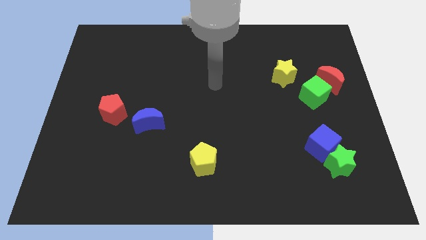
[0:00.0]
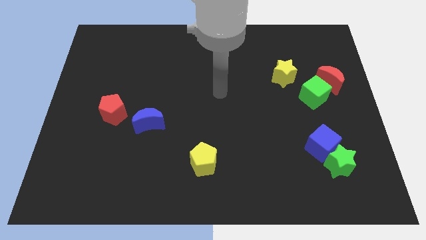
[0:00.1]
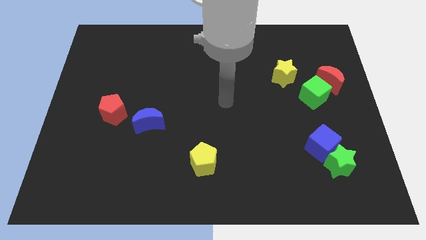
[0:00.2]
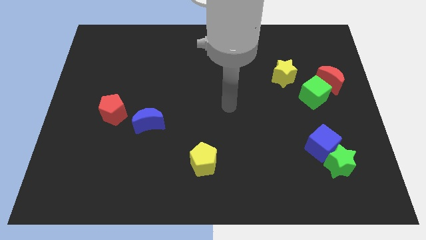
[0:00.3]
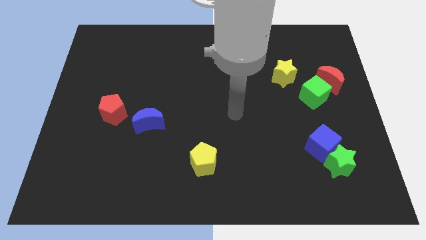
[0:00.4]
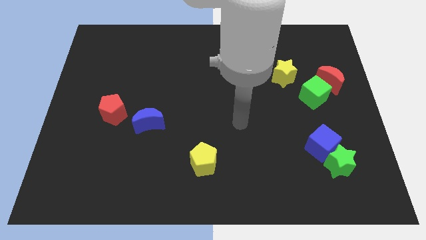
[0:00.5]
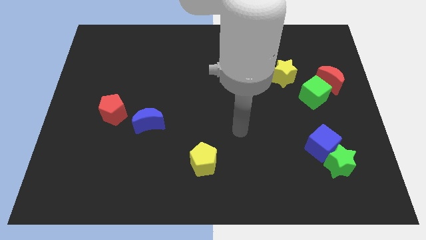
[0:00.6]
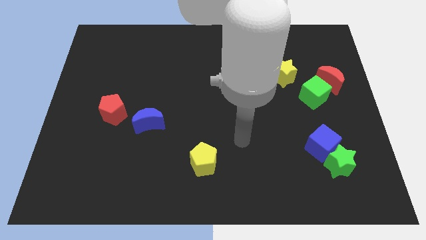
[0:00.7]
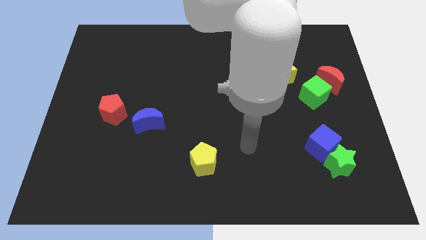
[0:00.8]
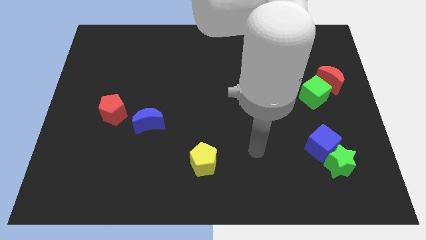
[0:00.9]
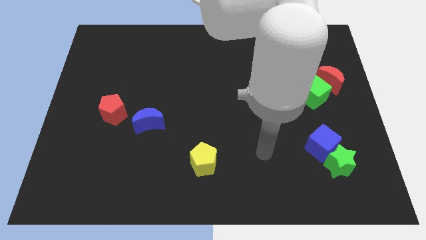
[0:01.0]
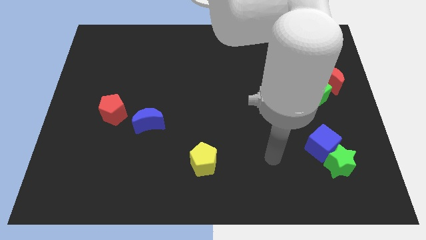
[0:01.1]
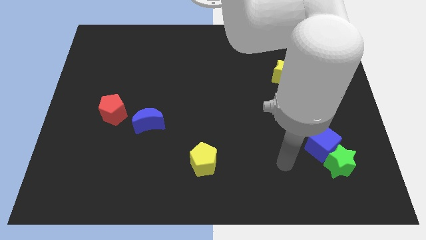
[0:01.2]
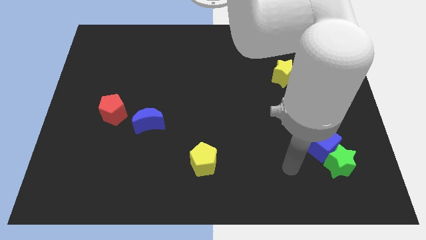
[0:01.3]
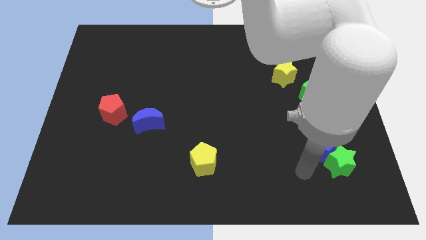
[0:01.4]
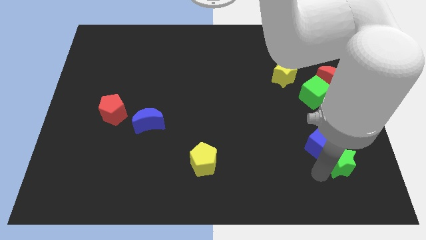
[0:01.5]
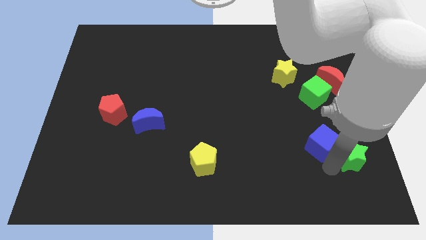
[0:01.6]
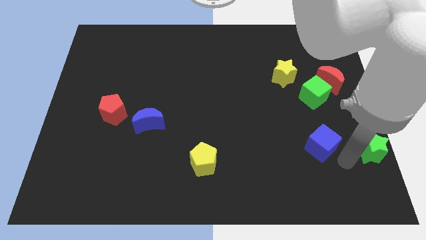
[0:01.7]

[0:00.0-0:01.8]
separate the blue cube from the green star

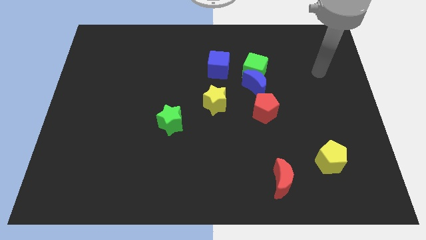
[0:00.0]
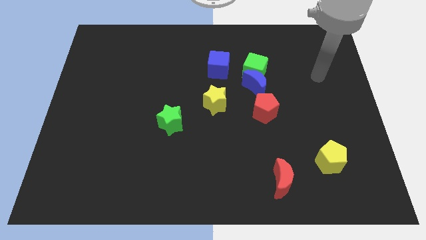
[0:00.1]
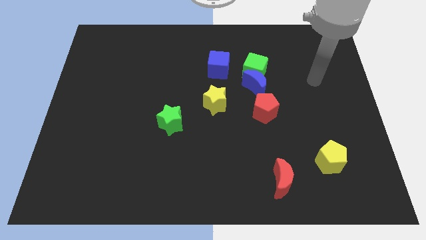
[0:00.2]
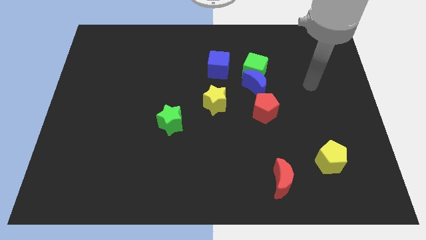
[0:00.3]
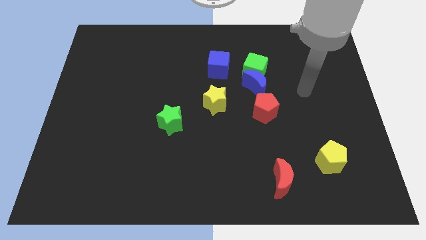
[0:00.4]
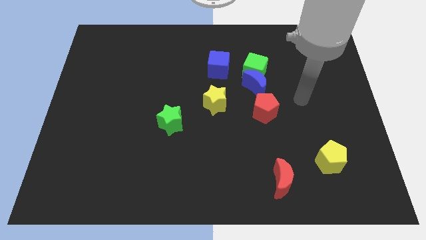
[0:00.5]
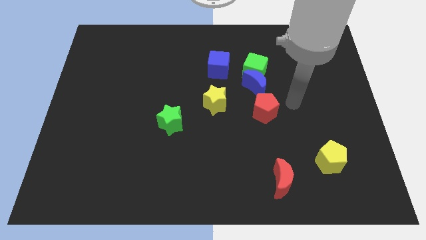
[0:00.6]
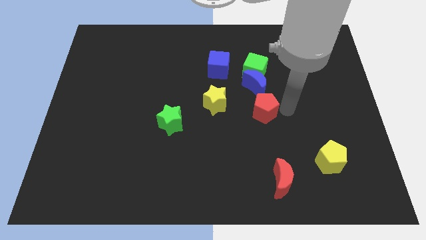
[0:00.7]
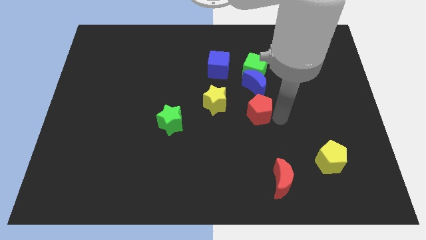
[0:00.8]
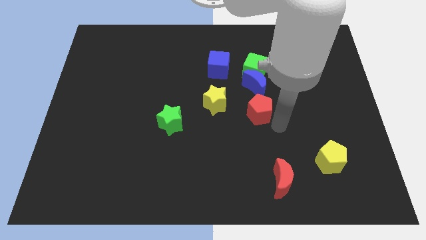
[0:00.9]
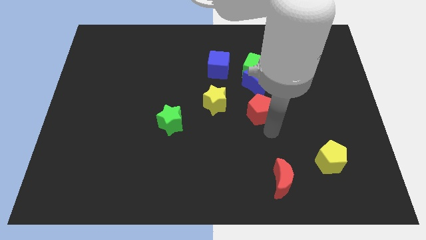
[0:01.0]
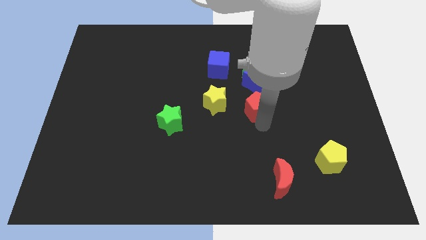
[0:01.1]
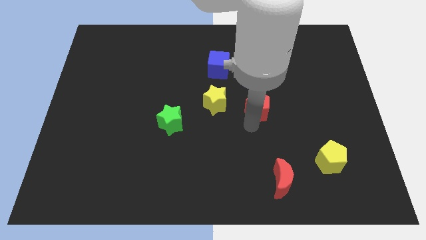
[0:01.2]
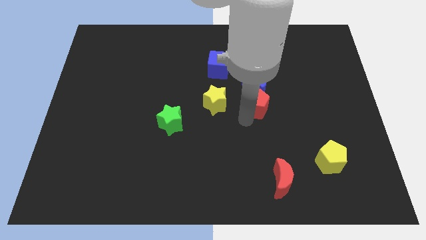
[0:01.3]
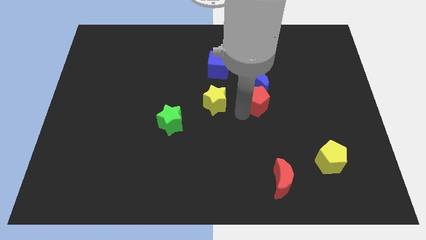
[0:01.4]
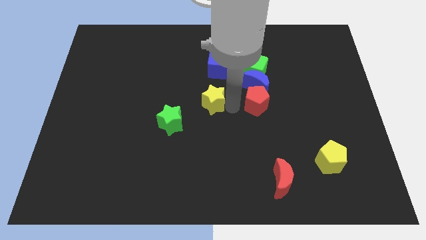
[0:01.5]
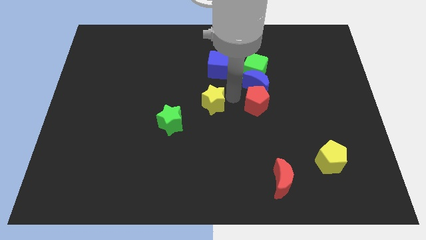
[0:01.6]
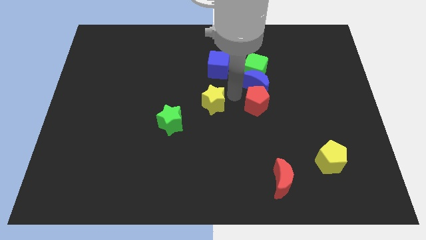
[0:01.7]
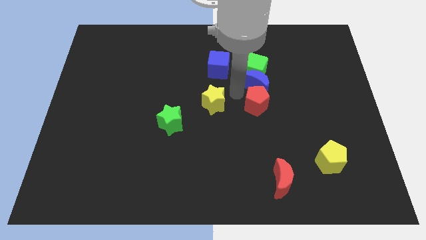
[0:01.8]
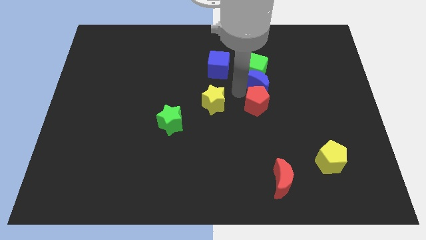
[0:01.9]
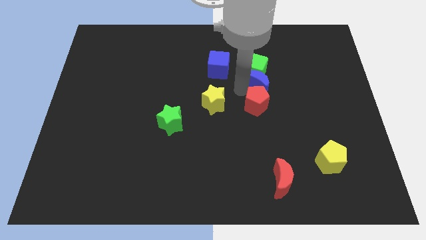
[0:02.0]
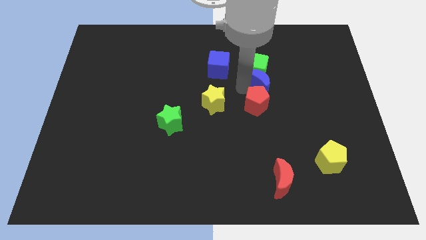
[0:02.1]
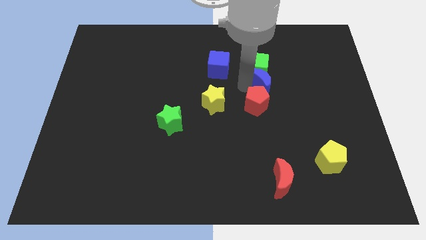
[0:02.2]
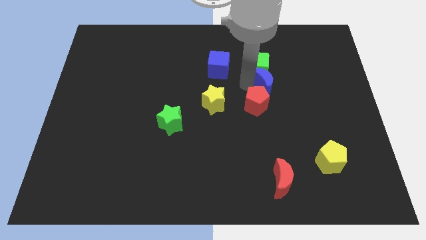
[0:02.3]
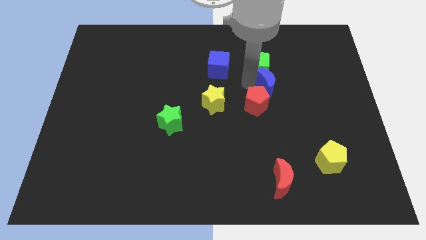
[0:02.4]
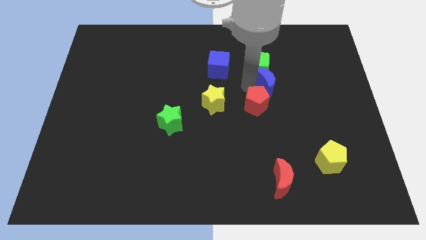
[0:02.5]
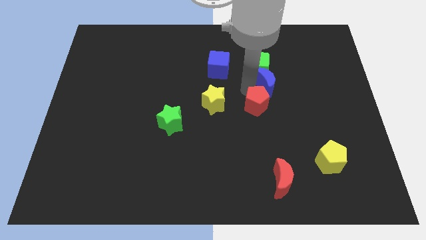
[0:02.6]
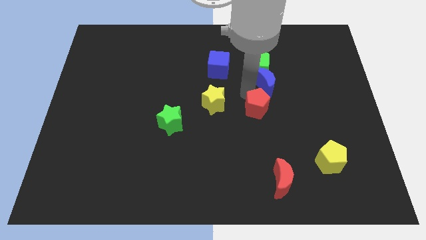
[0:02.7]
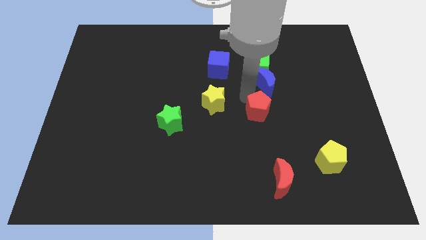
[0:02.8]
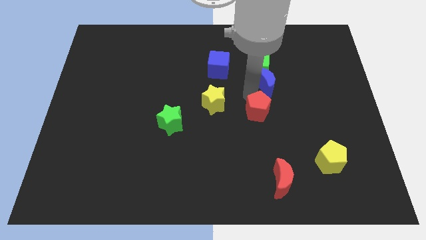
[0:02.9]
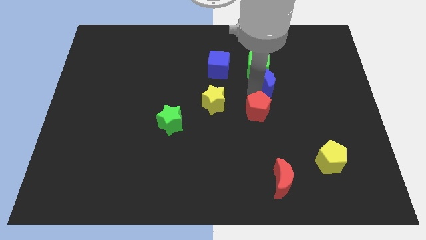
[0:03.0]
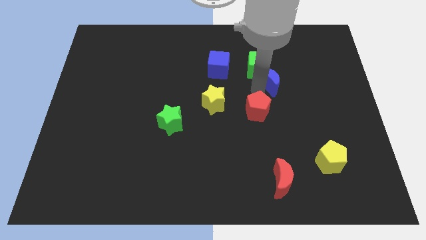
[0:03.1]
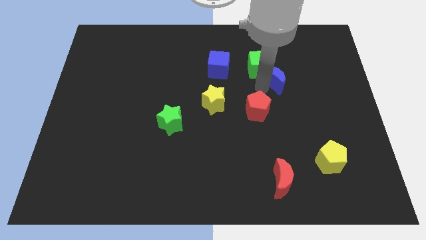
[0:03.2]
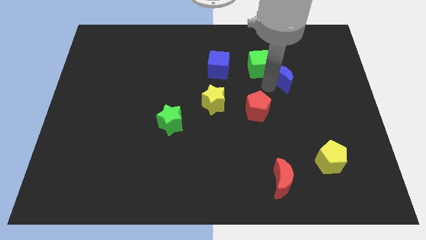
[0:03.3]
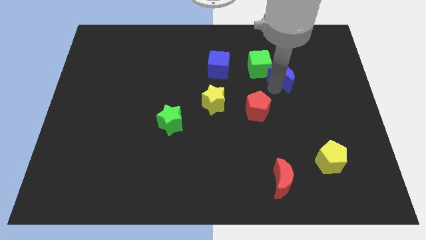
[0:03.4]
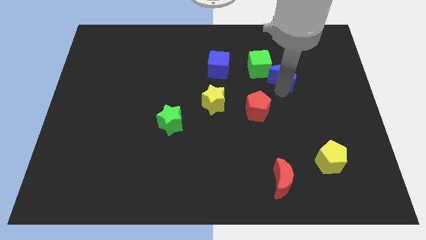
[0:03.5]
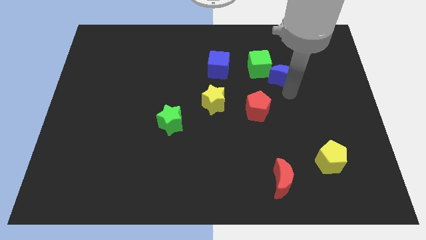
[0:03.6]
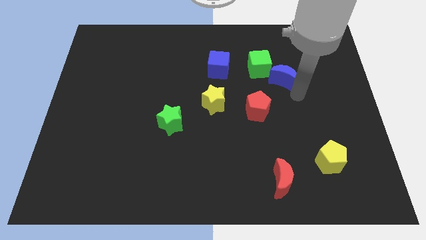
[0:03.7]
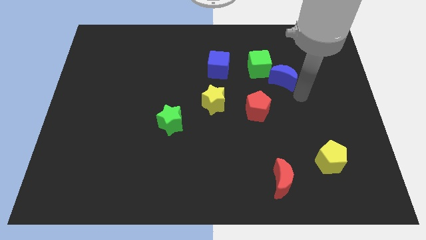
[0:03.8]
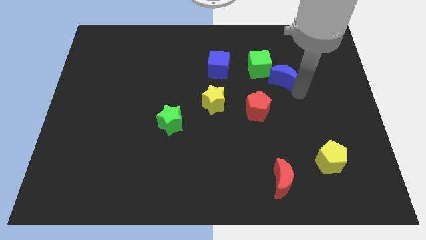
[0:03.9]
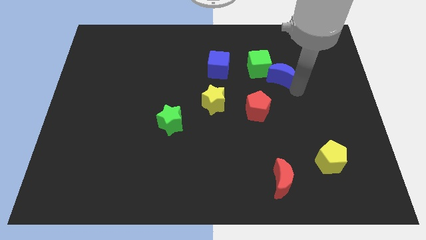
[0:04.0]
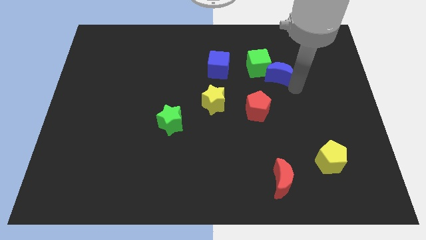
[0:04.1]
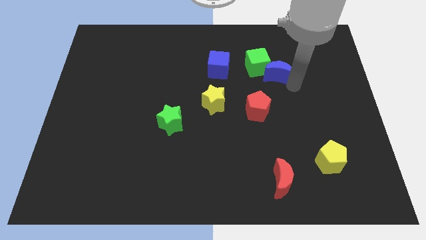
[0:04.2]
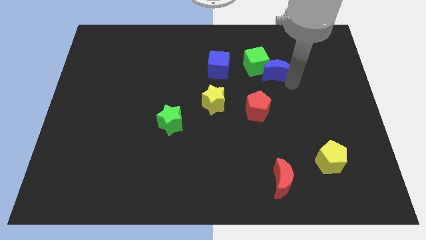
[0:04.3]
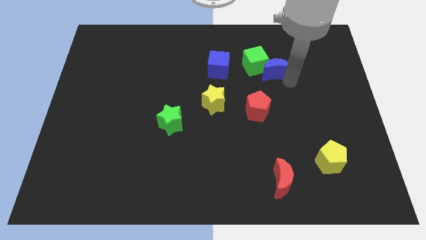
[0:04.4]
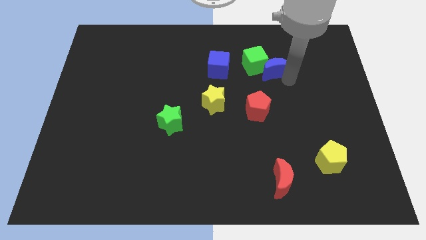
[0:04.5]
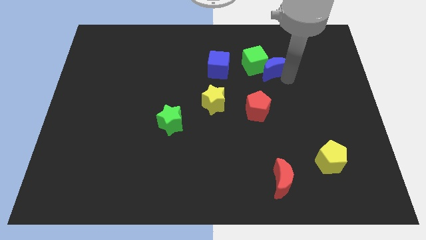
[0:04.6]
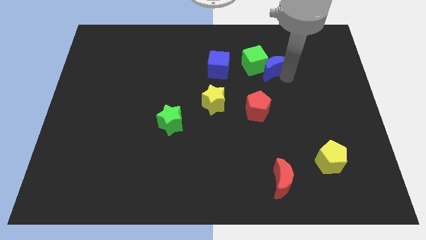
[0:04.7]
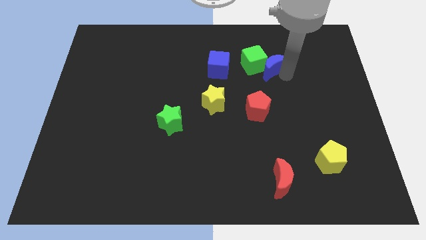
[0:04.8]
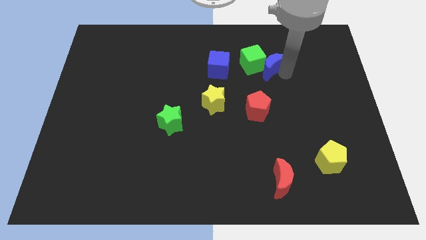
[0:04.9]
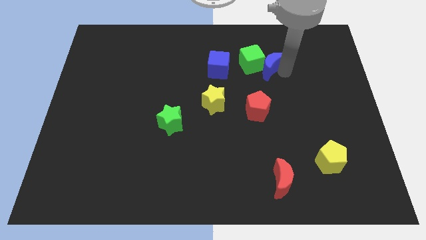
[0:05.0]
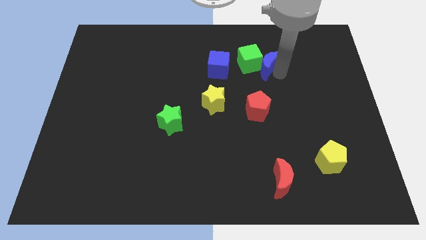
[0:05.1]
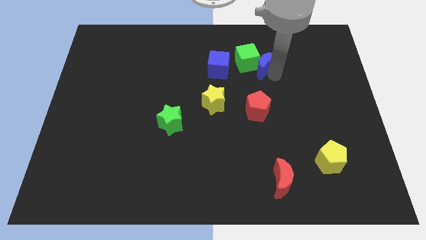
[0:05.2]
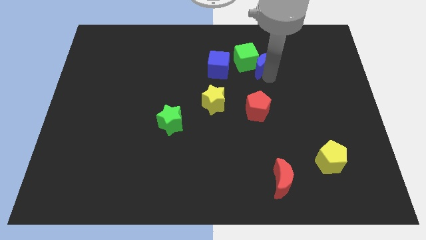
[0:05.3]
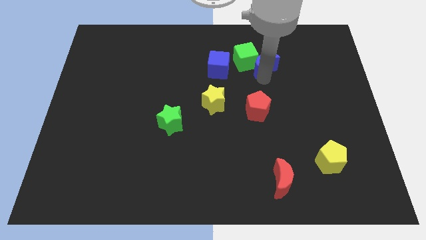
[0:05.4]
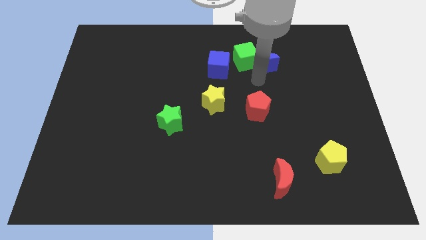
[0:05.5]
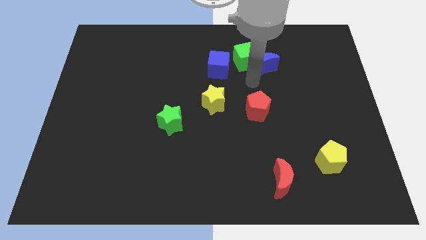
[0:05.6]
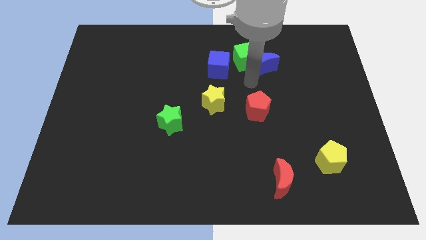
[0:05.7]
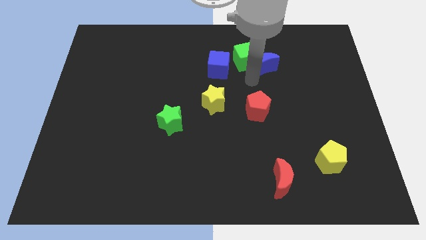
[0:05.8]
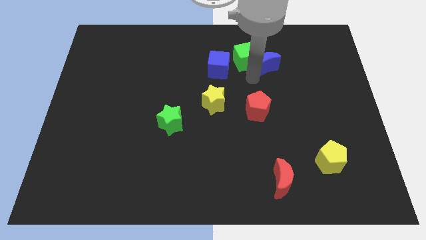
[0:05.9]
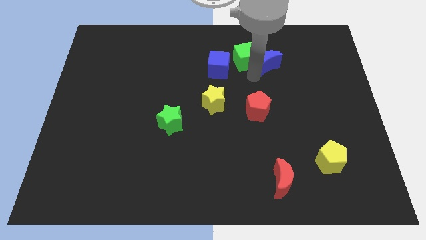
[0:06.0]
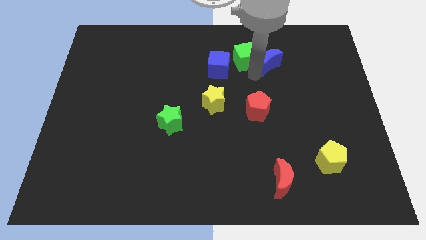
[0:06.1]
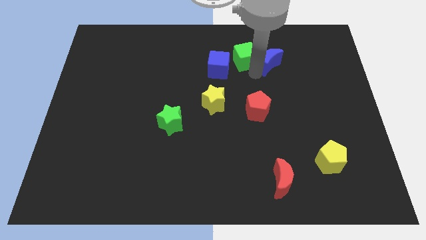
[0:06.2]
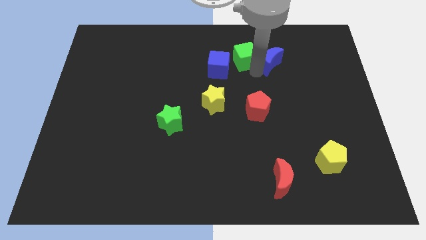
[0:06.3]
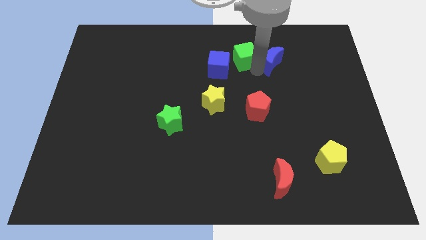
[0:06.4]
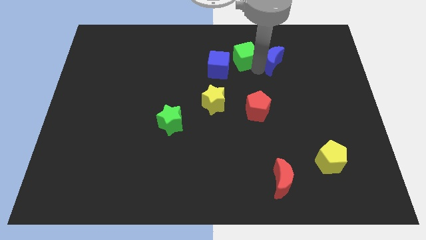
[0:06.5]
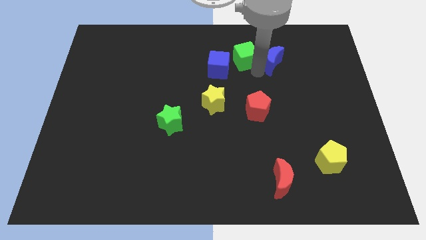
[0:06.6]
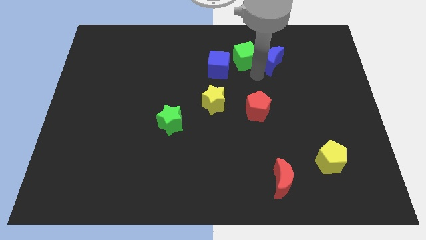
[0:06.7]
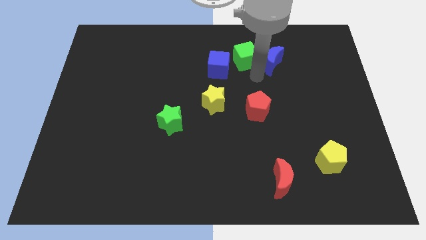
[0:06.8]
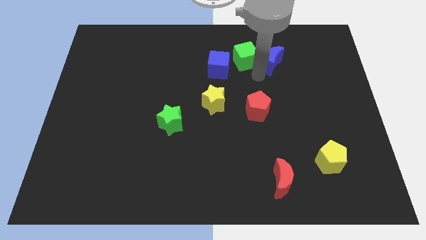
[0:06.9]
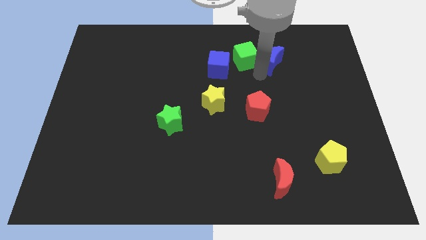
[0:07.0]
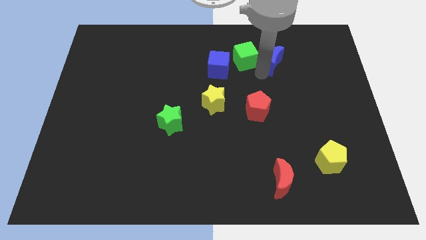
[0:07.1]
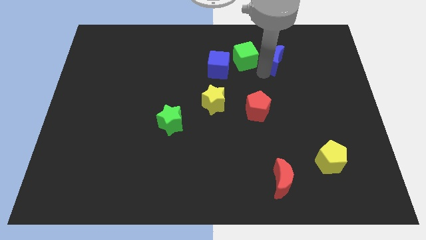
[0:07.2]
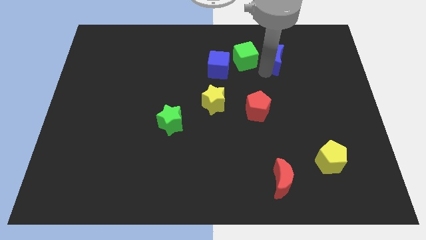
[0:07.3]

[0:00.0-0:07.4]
pull the blue moon apart from the green cube and red pentagon
